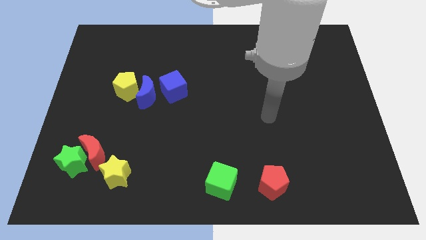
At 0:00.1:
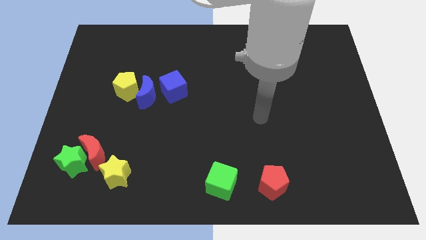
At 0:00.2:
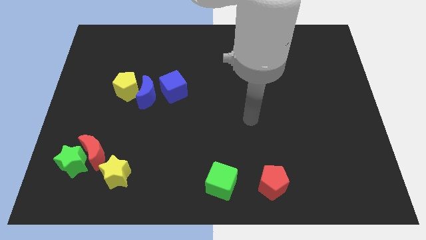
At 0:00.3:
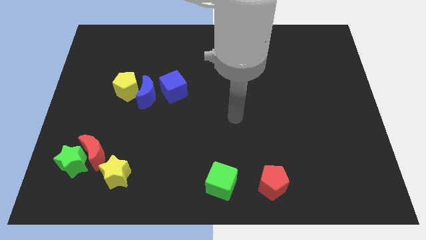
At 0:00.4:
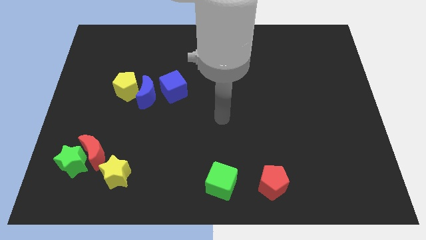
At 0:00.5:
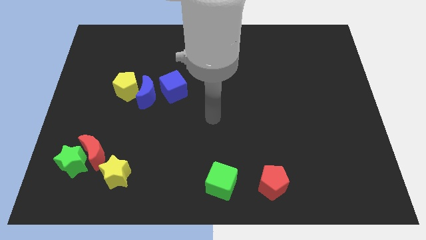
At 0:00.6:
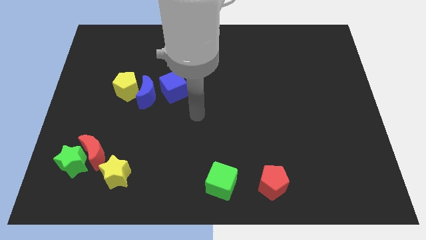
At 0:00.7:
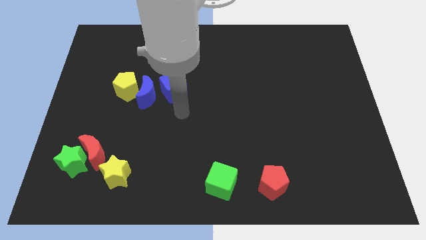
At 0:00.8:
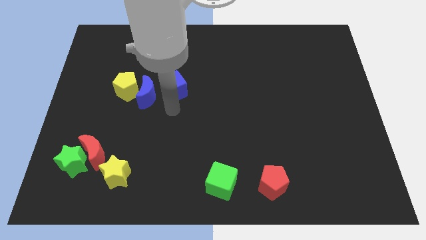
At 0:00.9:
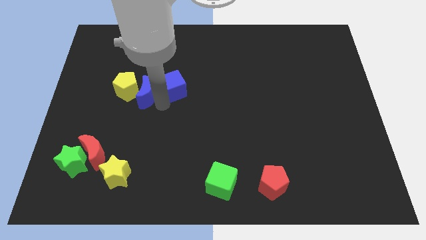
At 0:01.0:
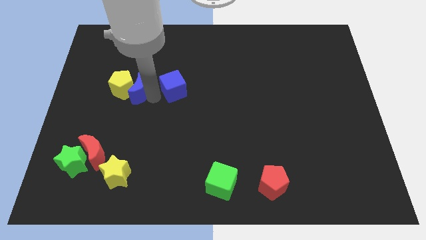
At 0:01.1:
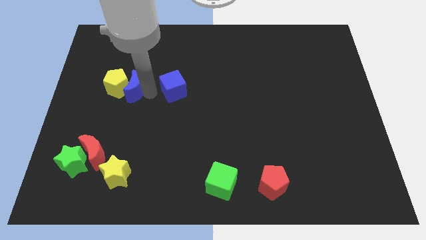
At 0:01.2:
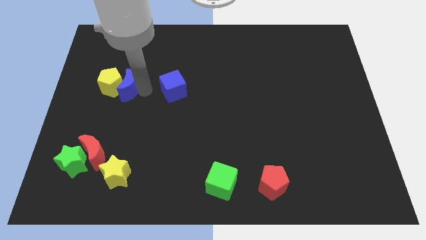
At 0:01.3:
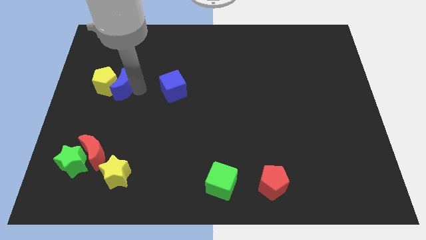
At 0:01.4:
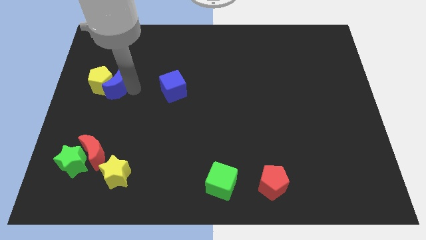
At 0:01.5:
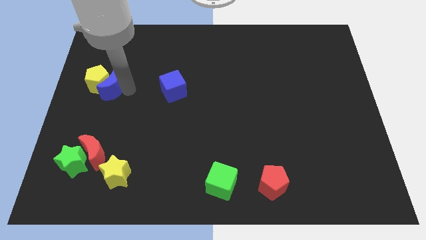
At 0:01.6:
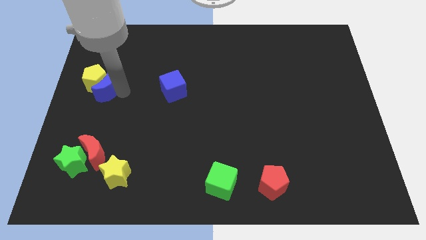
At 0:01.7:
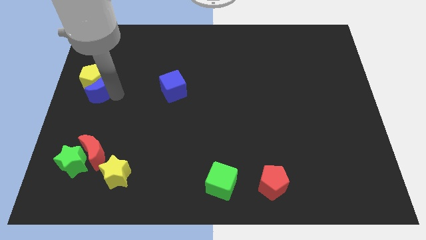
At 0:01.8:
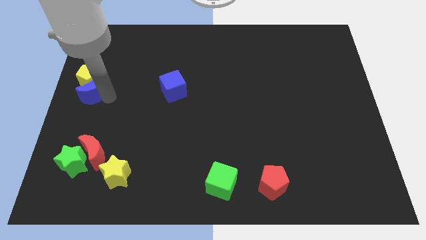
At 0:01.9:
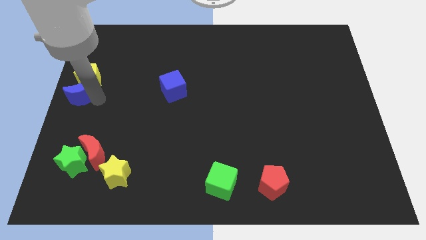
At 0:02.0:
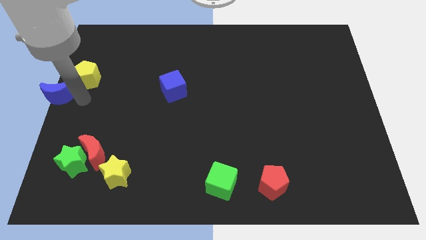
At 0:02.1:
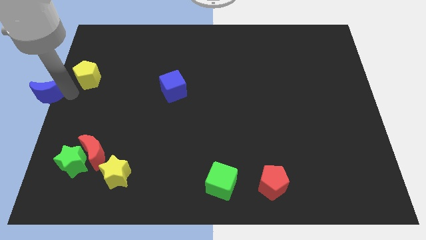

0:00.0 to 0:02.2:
pull the yellow pentagon apart from the blue moon

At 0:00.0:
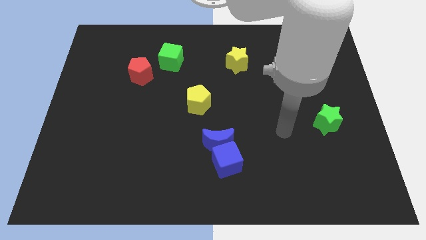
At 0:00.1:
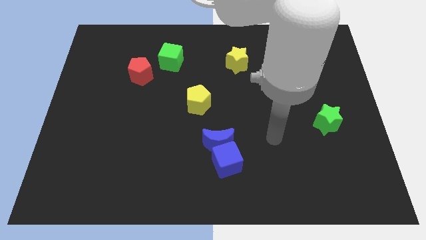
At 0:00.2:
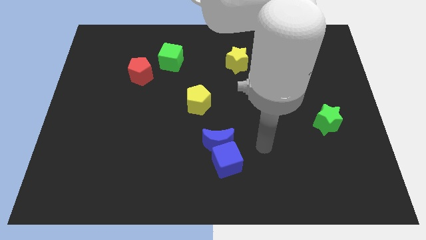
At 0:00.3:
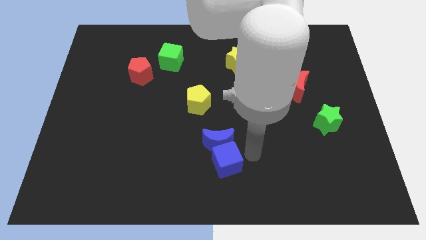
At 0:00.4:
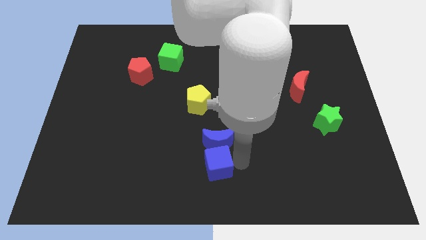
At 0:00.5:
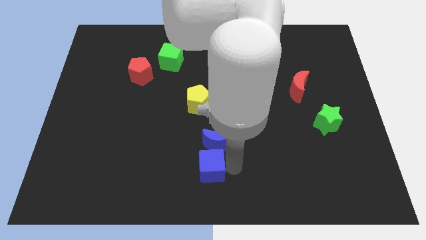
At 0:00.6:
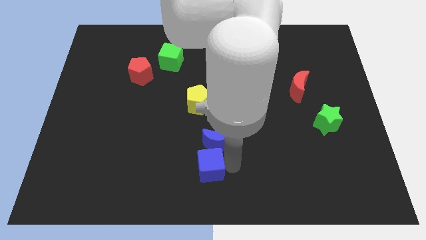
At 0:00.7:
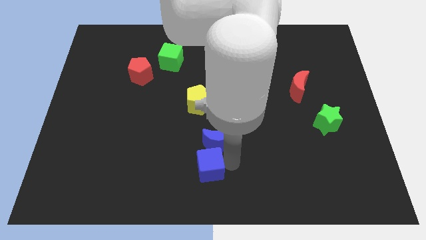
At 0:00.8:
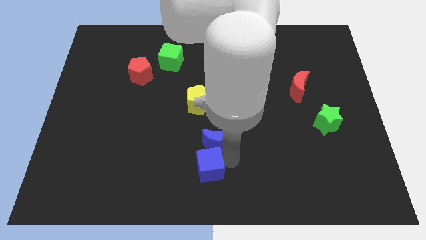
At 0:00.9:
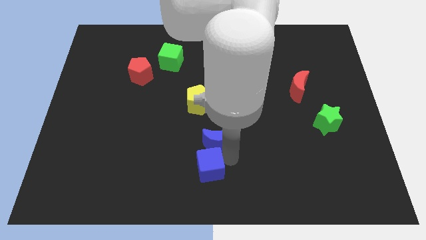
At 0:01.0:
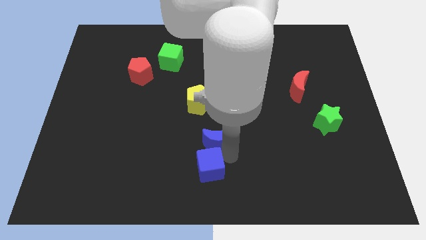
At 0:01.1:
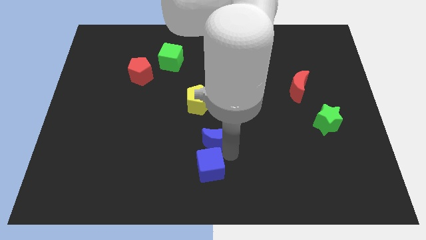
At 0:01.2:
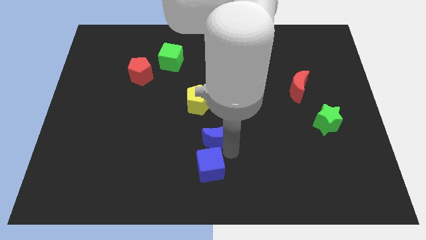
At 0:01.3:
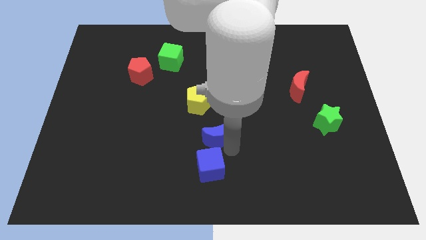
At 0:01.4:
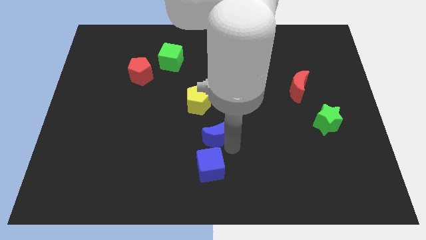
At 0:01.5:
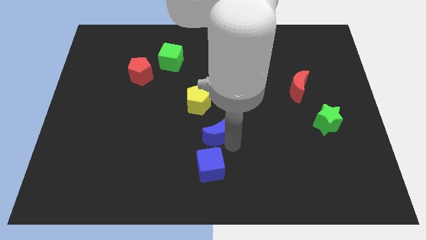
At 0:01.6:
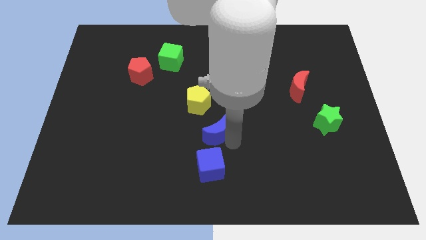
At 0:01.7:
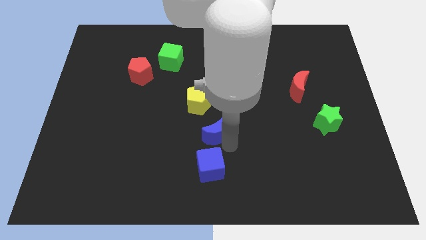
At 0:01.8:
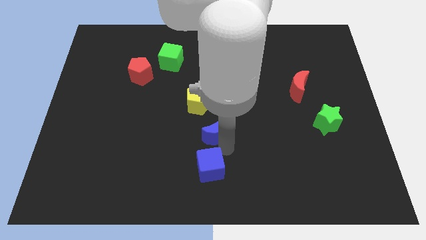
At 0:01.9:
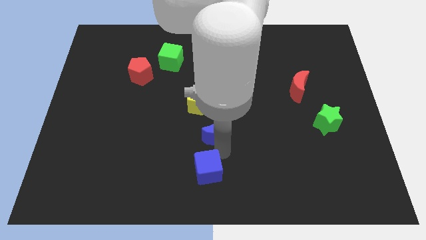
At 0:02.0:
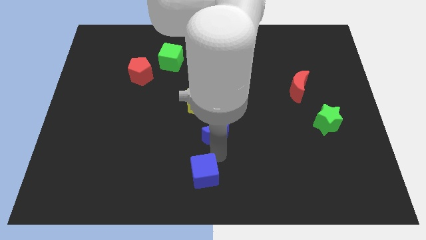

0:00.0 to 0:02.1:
separate the blue moon from the blue cube

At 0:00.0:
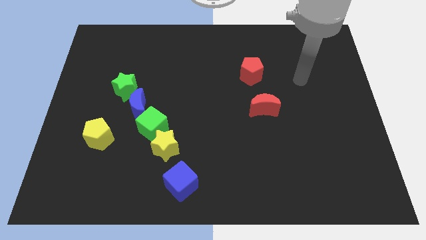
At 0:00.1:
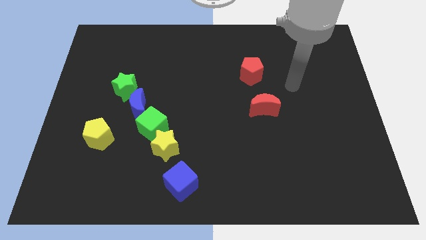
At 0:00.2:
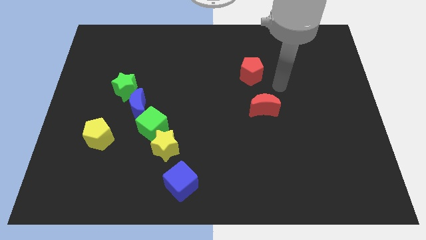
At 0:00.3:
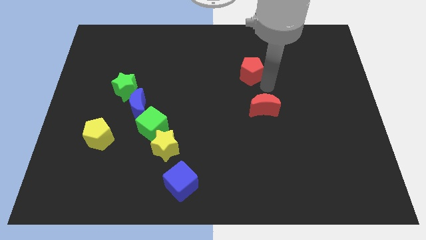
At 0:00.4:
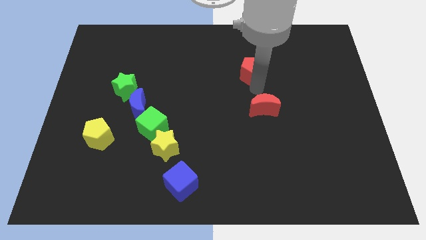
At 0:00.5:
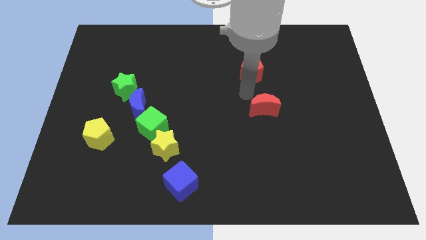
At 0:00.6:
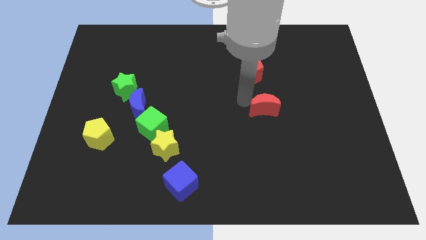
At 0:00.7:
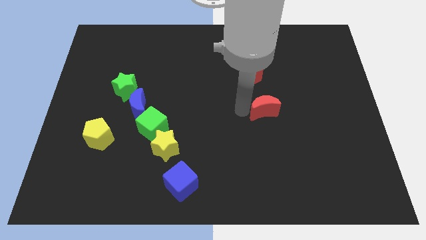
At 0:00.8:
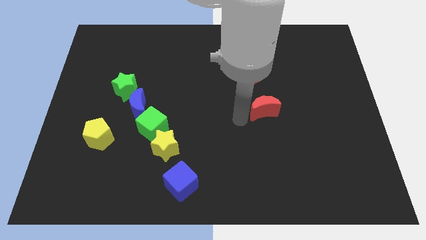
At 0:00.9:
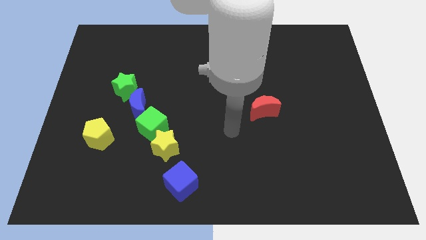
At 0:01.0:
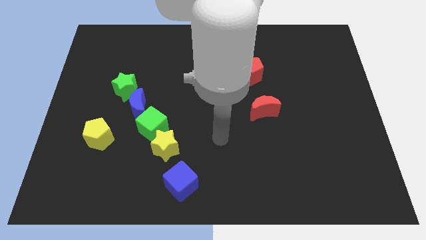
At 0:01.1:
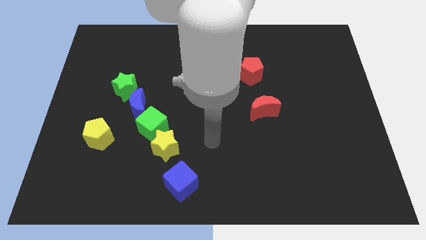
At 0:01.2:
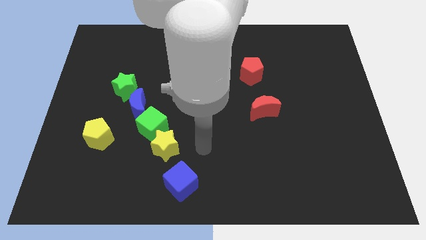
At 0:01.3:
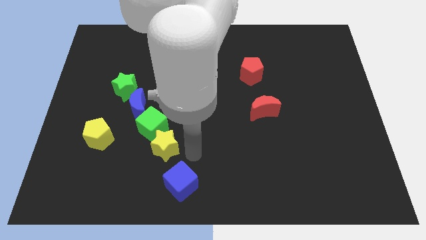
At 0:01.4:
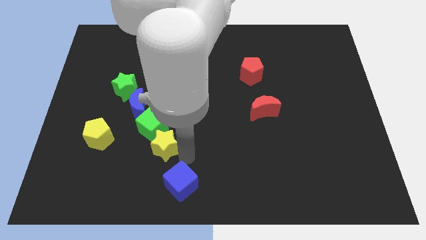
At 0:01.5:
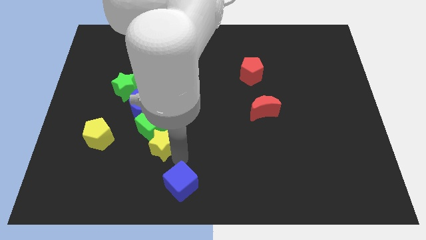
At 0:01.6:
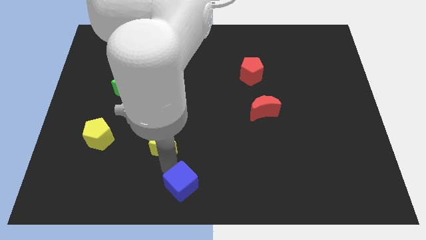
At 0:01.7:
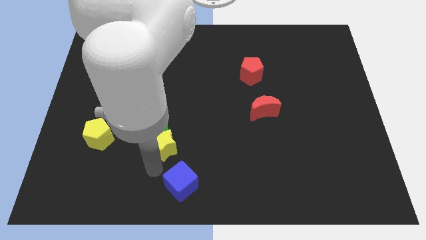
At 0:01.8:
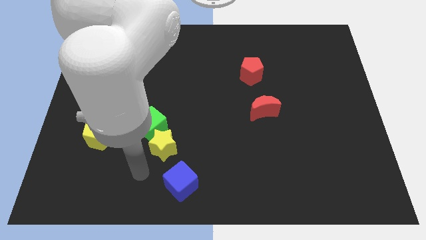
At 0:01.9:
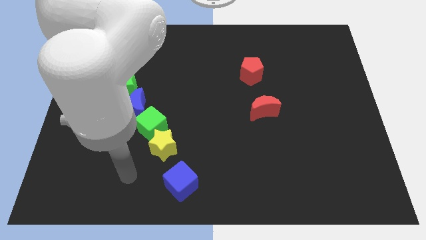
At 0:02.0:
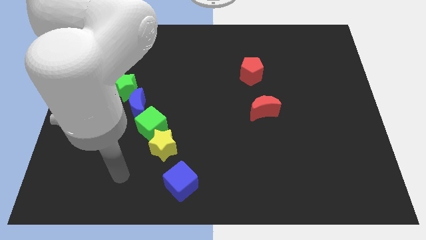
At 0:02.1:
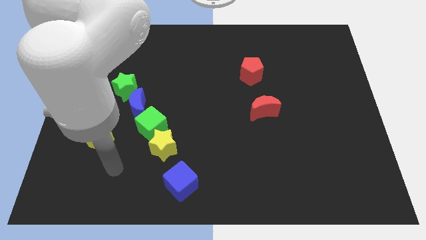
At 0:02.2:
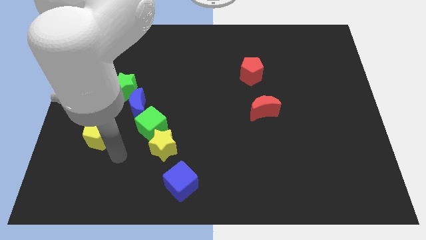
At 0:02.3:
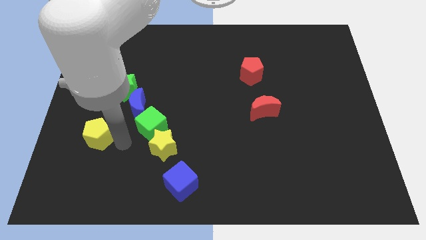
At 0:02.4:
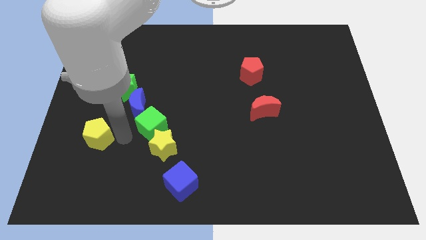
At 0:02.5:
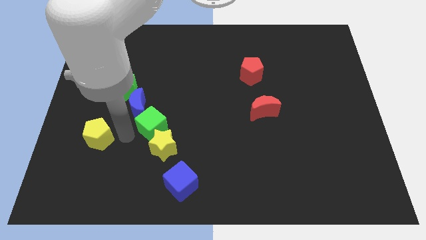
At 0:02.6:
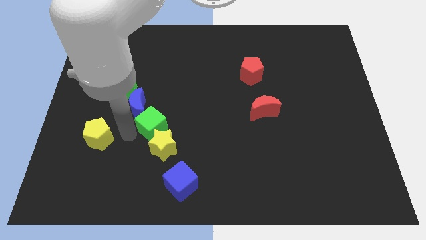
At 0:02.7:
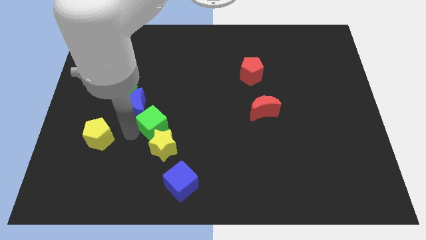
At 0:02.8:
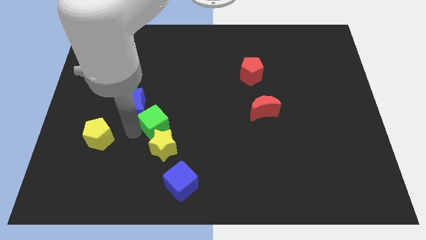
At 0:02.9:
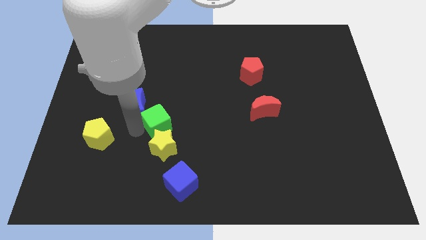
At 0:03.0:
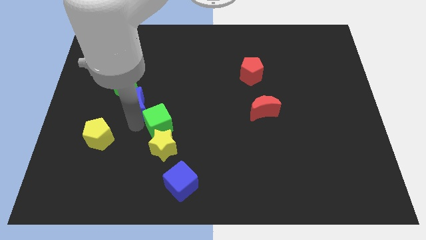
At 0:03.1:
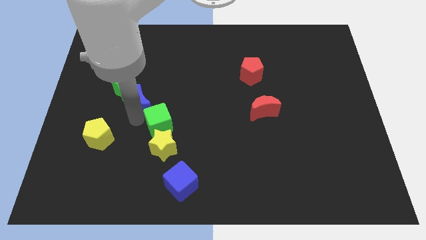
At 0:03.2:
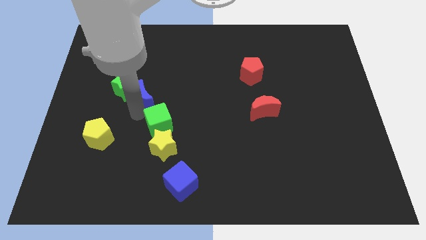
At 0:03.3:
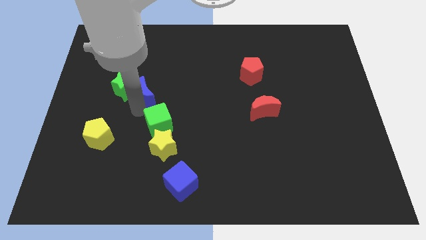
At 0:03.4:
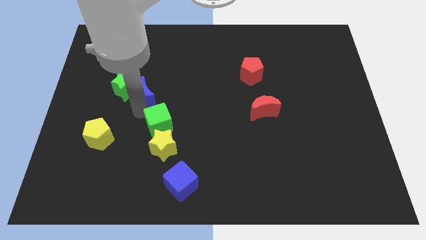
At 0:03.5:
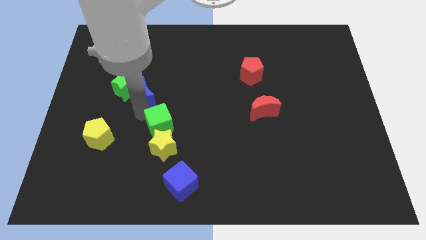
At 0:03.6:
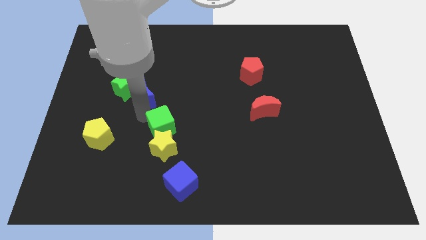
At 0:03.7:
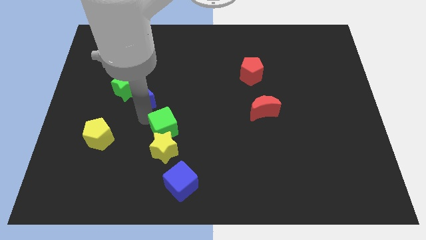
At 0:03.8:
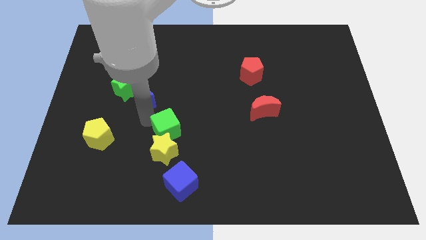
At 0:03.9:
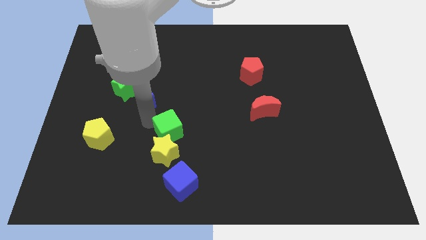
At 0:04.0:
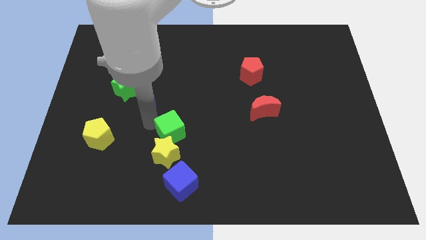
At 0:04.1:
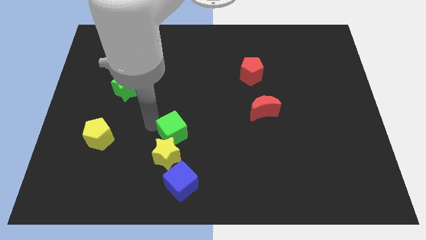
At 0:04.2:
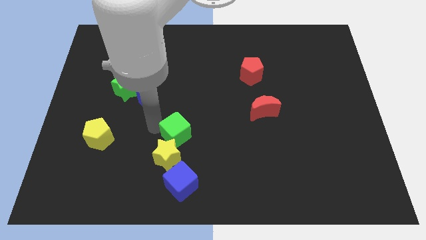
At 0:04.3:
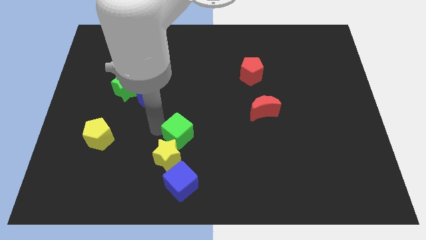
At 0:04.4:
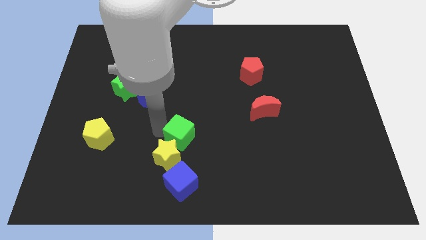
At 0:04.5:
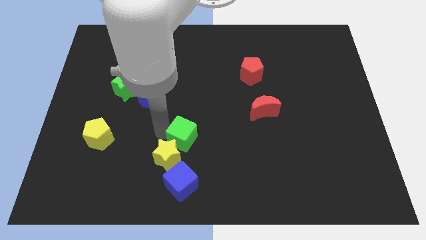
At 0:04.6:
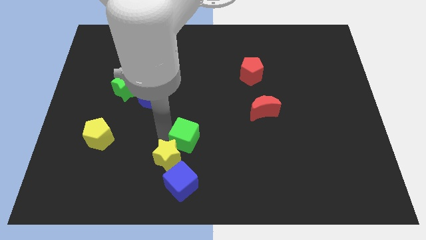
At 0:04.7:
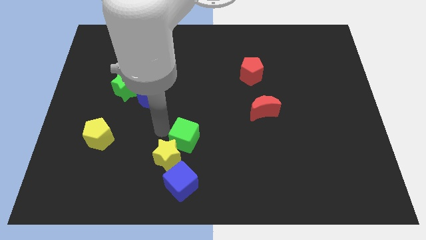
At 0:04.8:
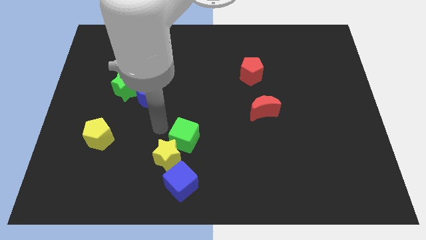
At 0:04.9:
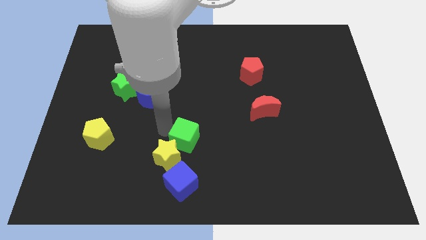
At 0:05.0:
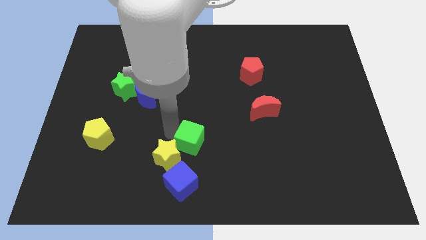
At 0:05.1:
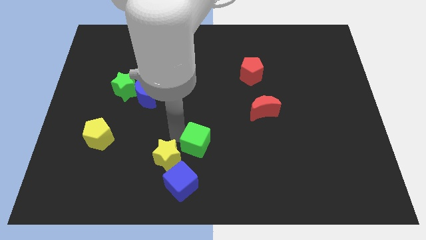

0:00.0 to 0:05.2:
move the green cube away from the yellow star and blue moon
